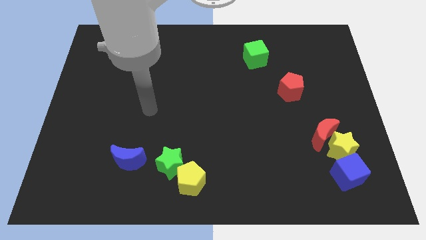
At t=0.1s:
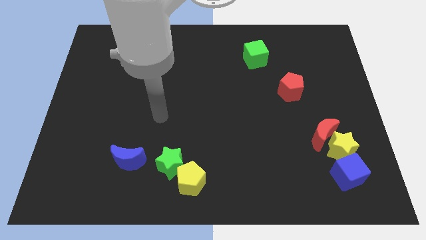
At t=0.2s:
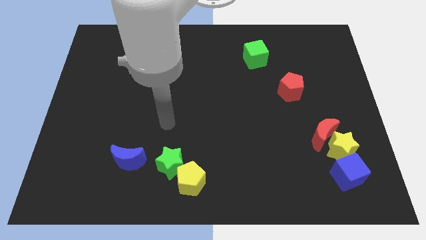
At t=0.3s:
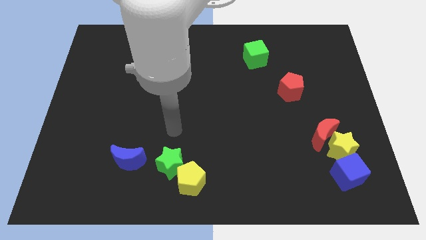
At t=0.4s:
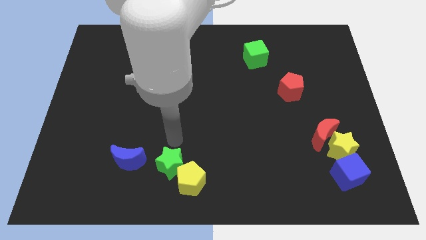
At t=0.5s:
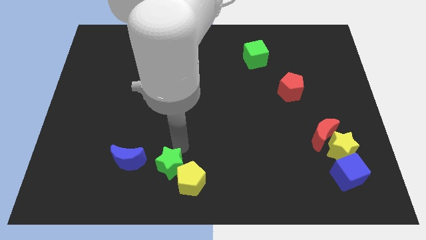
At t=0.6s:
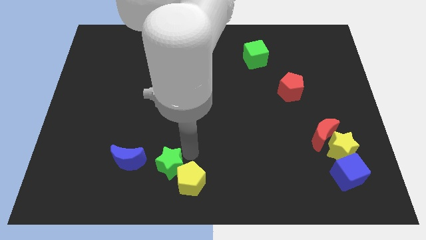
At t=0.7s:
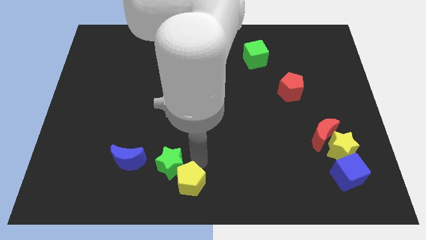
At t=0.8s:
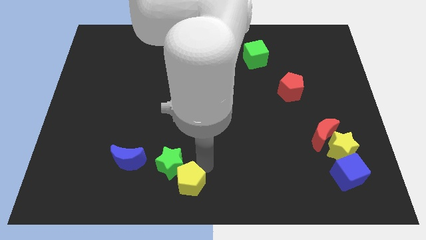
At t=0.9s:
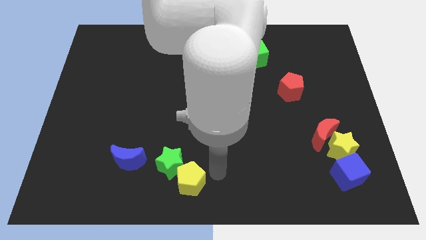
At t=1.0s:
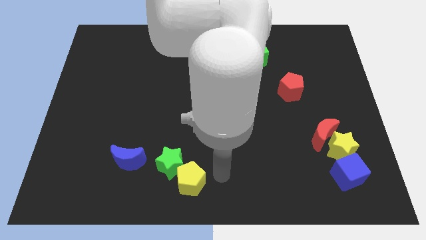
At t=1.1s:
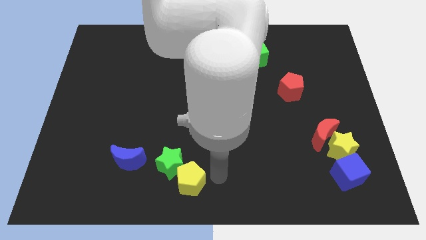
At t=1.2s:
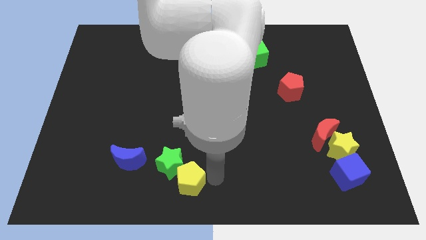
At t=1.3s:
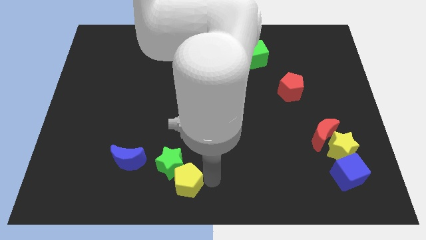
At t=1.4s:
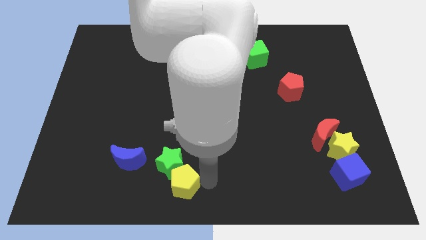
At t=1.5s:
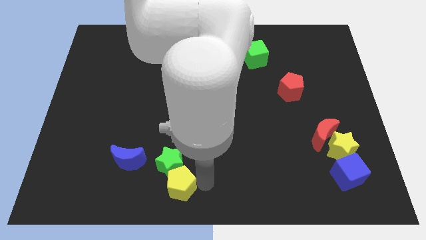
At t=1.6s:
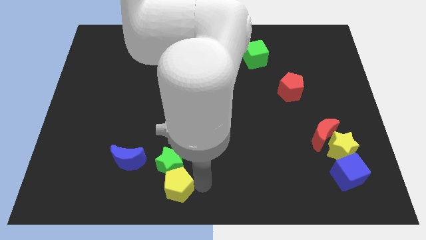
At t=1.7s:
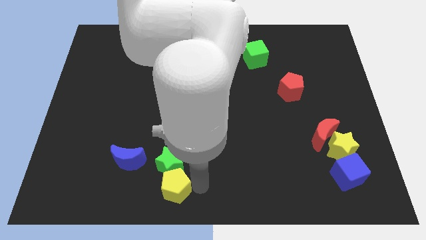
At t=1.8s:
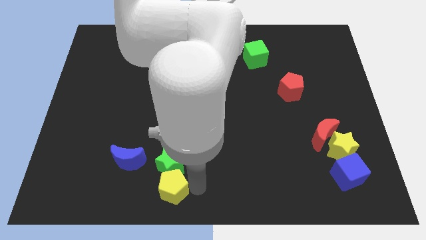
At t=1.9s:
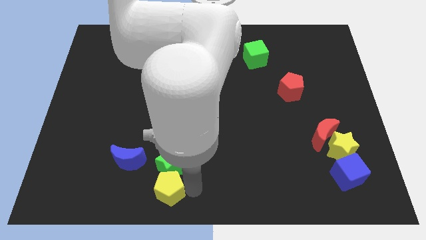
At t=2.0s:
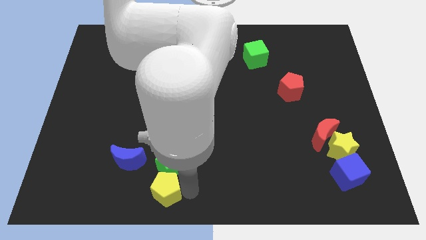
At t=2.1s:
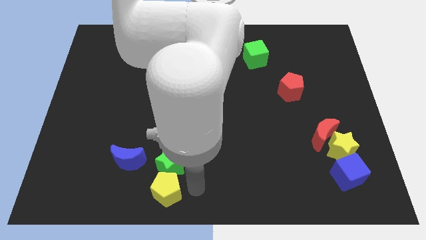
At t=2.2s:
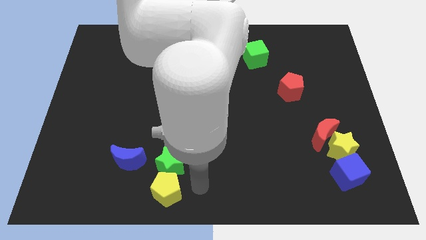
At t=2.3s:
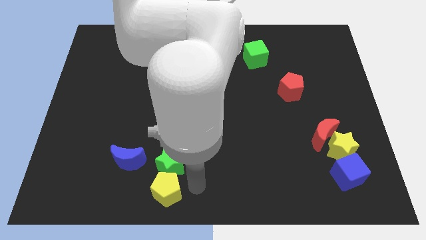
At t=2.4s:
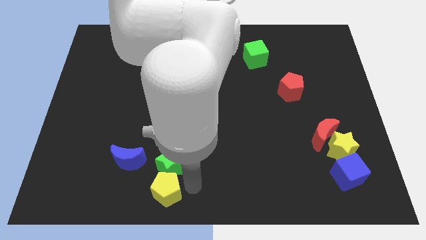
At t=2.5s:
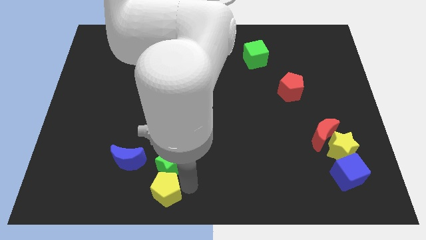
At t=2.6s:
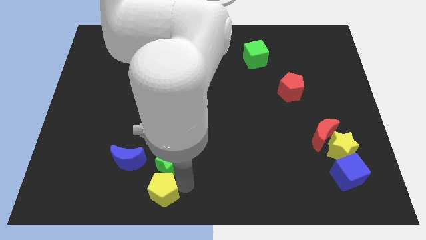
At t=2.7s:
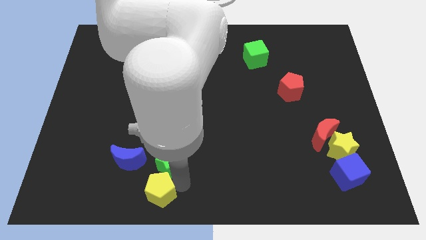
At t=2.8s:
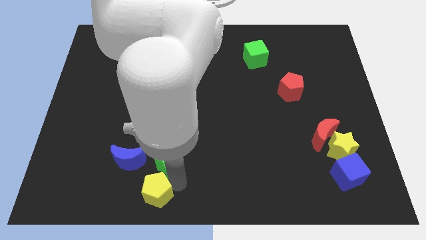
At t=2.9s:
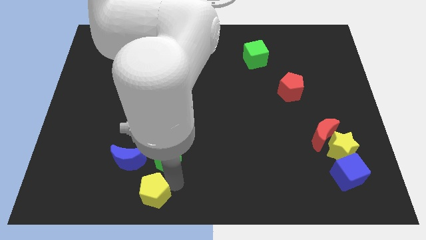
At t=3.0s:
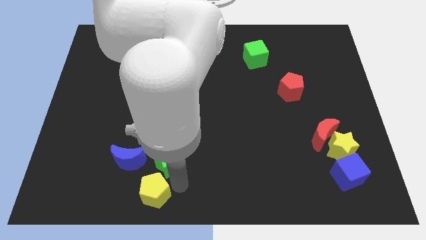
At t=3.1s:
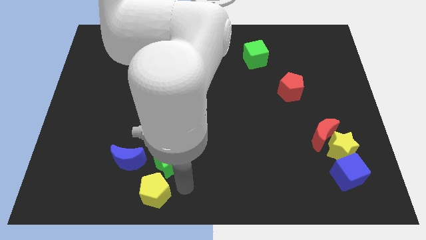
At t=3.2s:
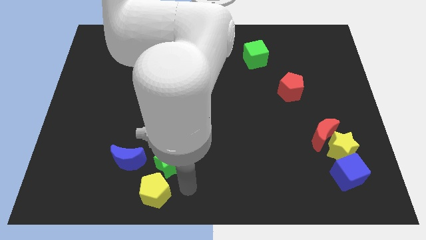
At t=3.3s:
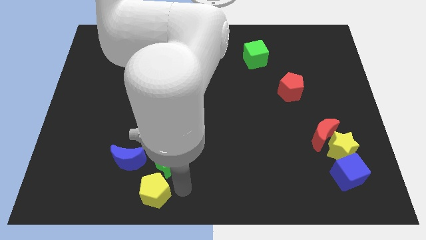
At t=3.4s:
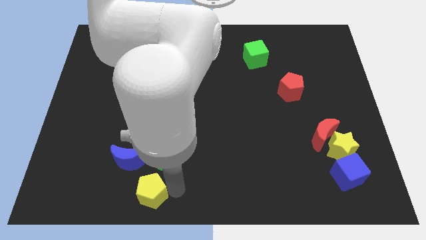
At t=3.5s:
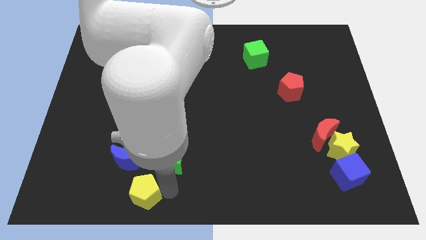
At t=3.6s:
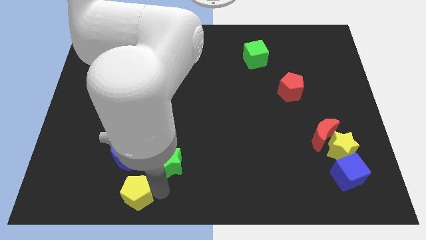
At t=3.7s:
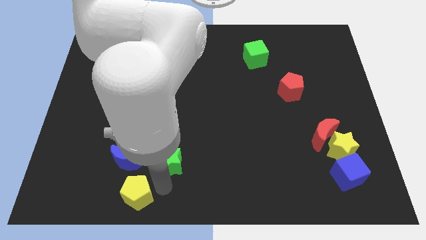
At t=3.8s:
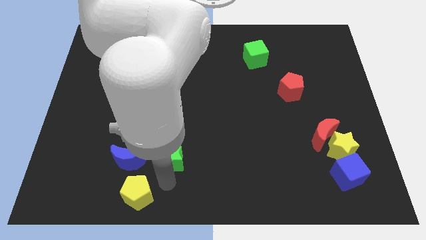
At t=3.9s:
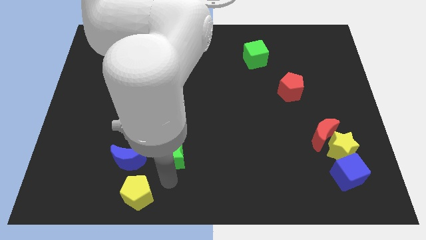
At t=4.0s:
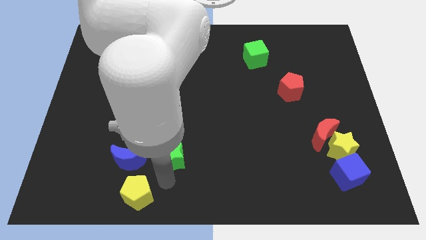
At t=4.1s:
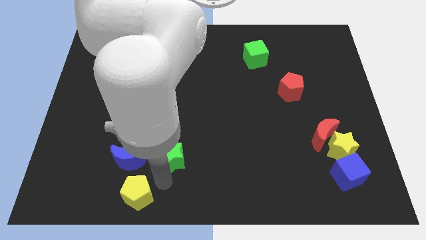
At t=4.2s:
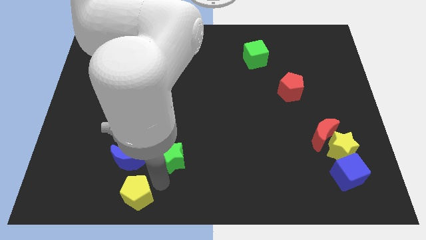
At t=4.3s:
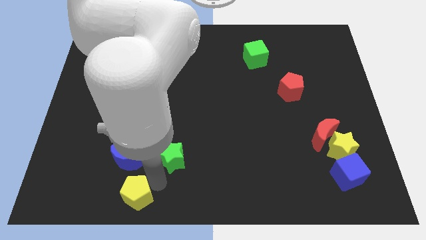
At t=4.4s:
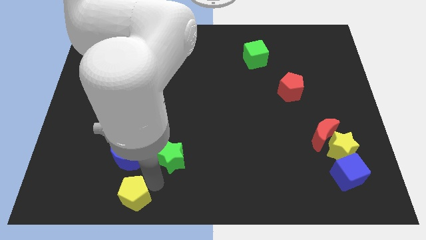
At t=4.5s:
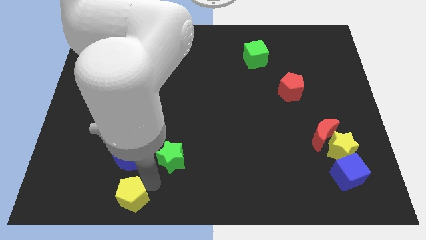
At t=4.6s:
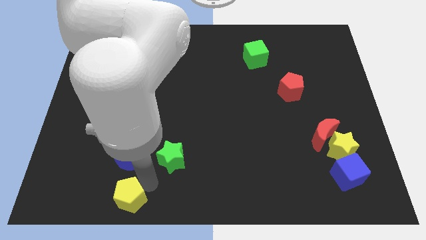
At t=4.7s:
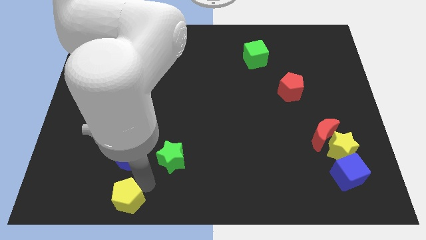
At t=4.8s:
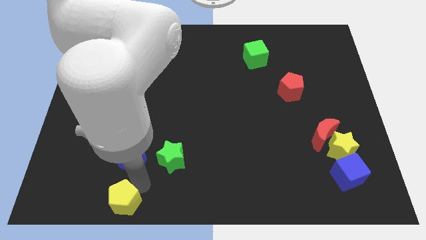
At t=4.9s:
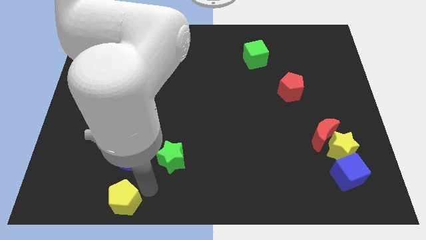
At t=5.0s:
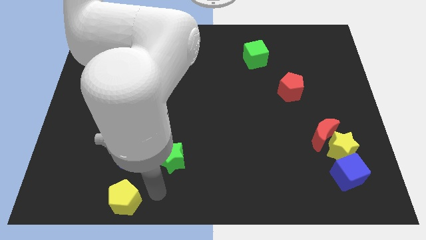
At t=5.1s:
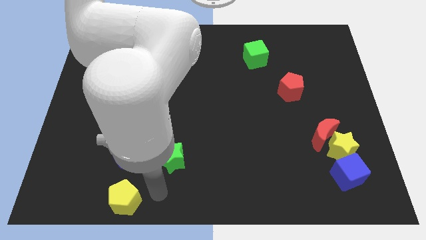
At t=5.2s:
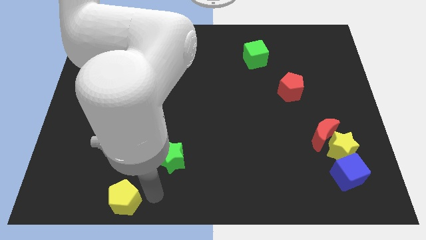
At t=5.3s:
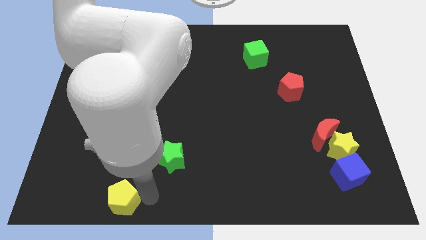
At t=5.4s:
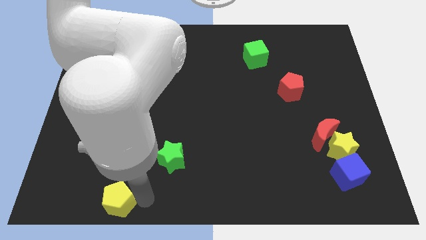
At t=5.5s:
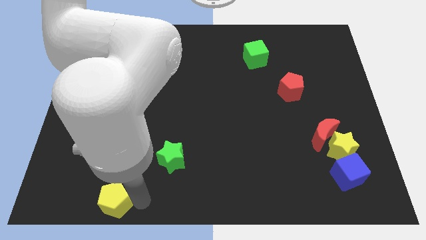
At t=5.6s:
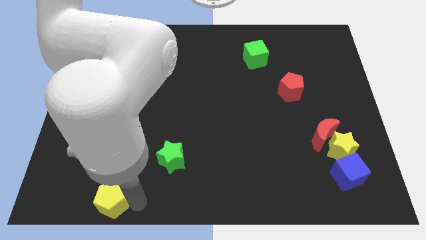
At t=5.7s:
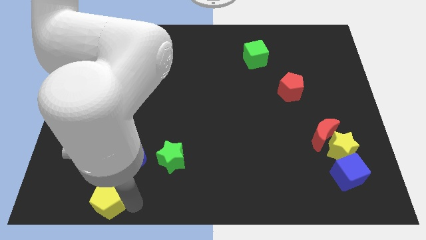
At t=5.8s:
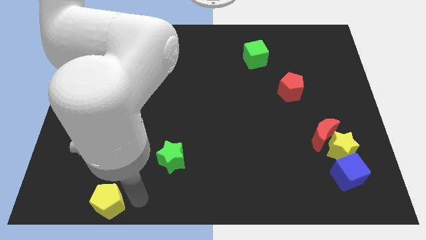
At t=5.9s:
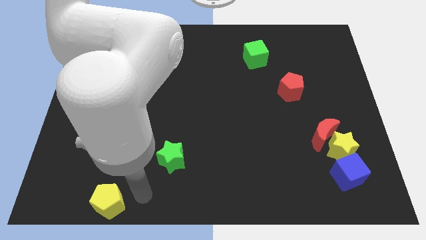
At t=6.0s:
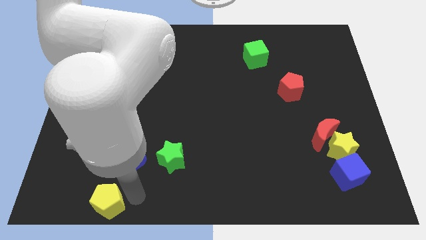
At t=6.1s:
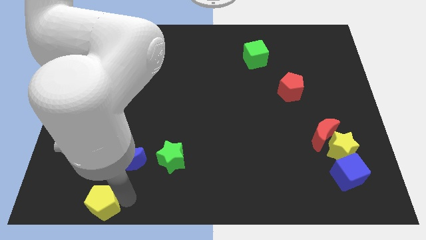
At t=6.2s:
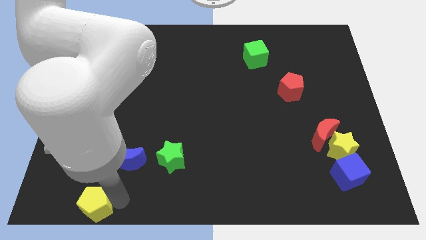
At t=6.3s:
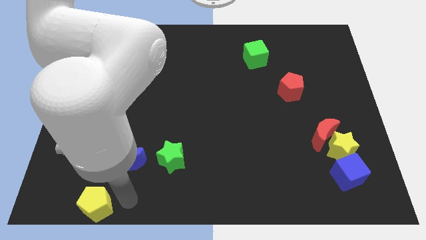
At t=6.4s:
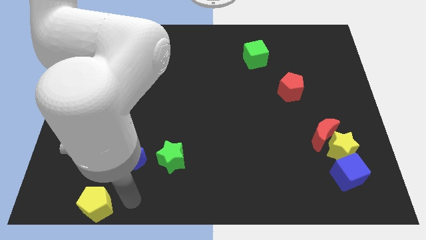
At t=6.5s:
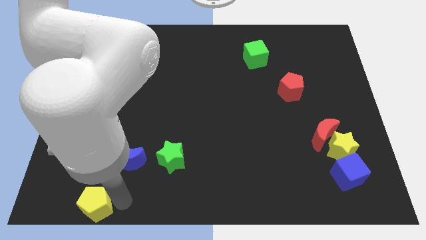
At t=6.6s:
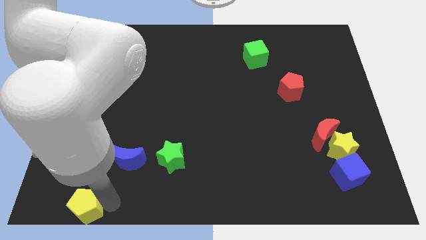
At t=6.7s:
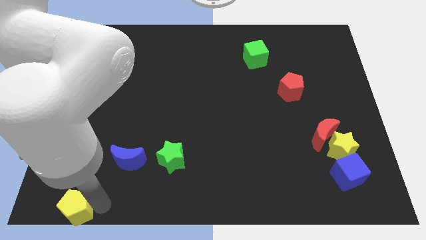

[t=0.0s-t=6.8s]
slide the yellow pentagon to the bottom left
